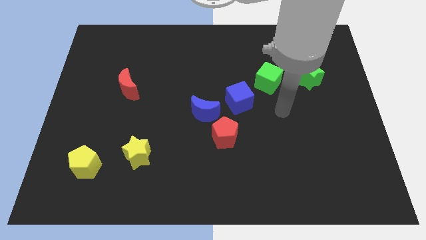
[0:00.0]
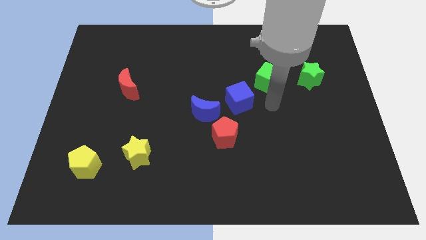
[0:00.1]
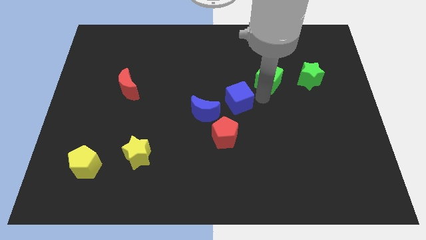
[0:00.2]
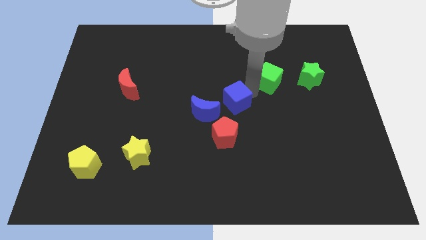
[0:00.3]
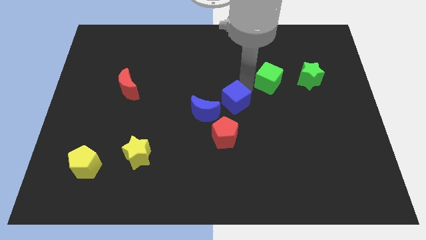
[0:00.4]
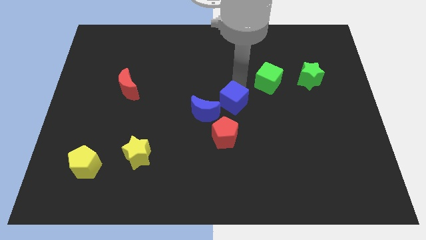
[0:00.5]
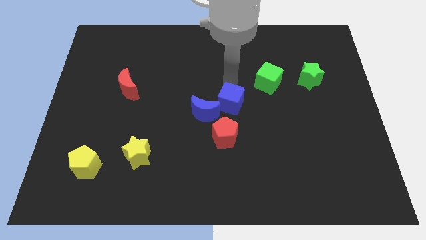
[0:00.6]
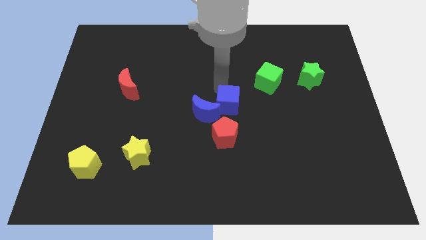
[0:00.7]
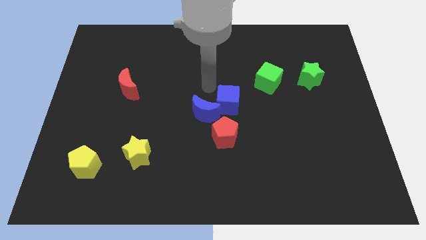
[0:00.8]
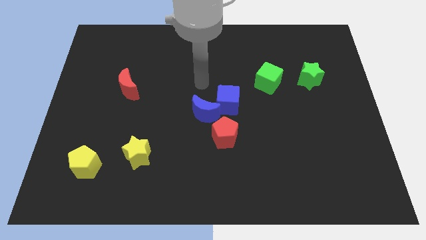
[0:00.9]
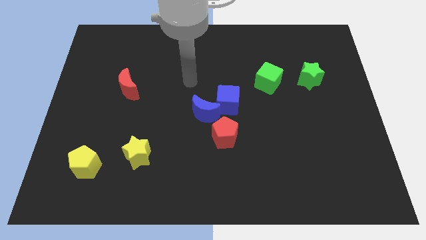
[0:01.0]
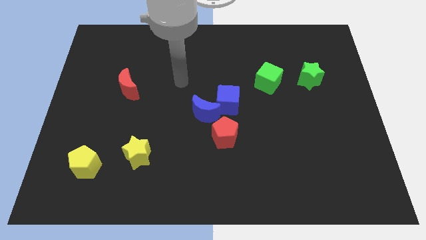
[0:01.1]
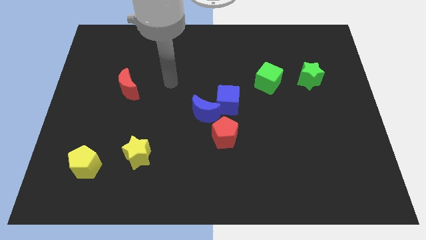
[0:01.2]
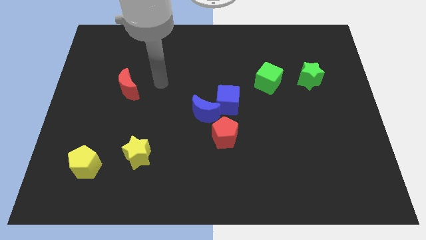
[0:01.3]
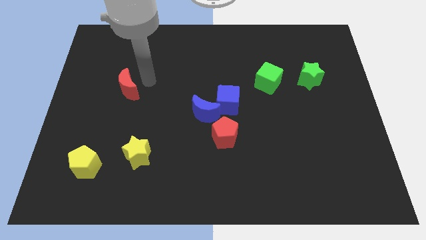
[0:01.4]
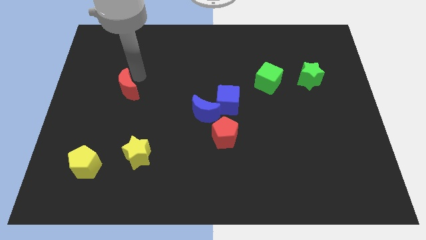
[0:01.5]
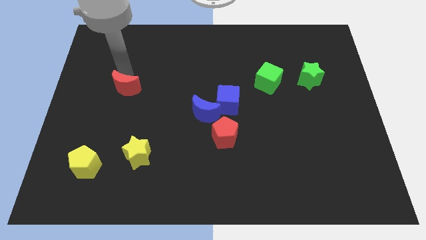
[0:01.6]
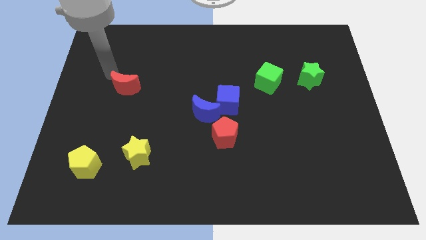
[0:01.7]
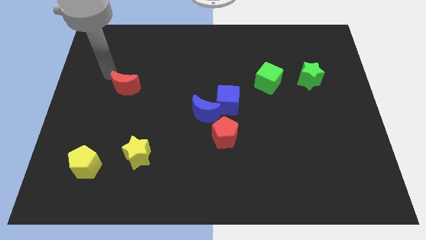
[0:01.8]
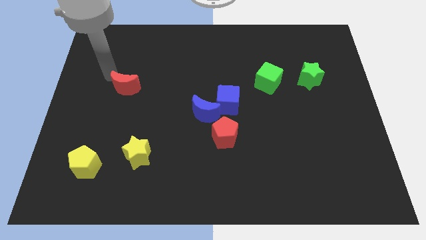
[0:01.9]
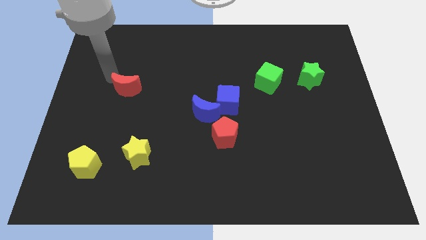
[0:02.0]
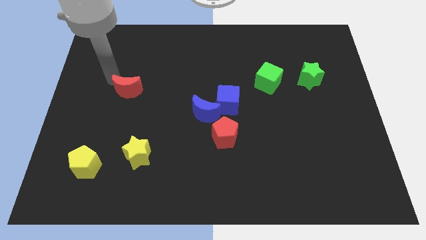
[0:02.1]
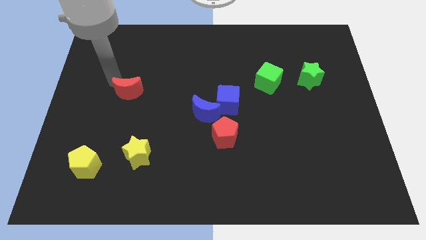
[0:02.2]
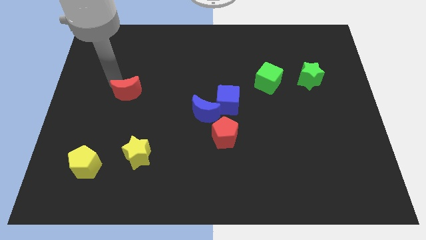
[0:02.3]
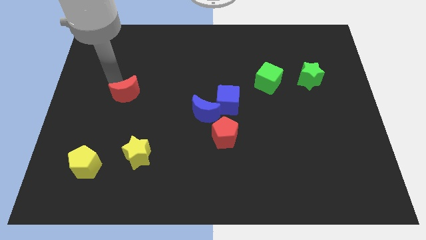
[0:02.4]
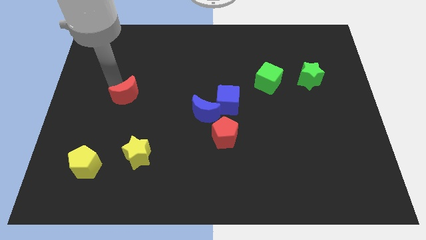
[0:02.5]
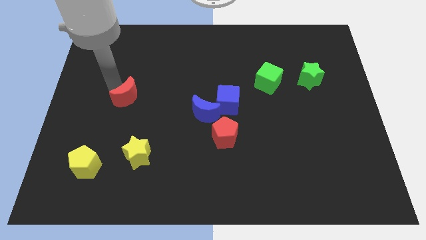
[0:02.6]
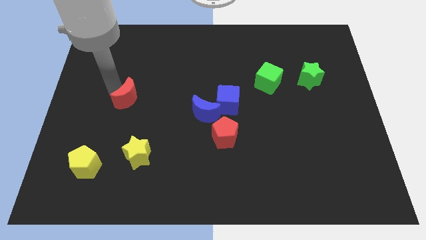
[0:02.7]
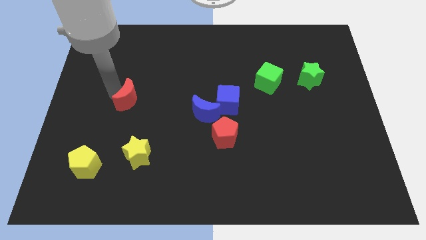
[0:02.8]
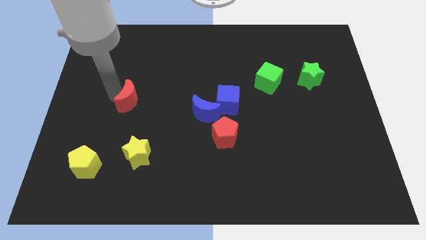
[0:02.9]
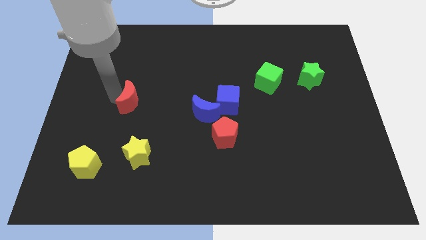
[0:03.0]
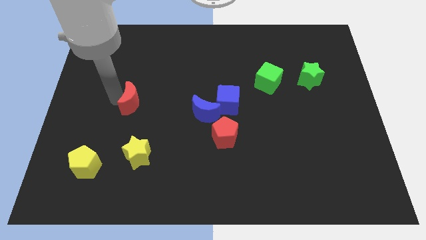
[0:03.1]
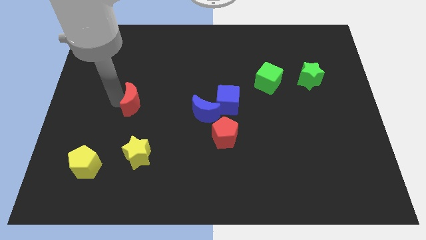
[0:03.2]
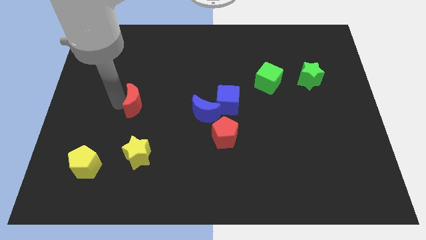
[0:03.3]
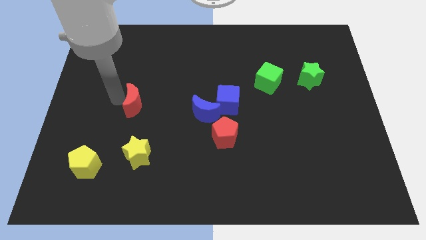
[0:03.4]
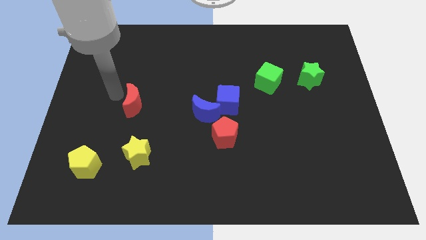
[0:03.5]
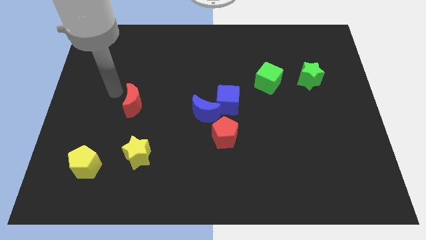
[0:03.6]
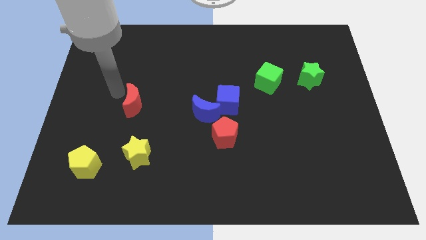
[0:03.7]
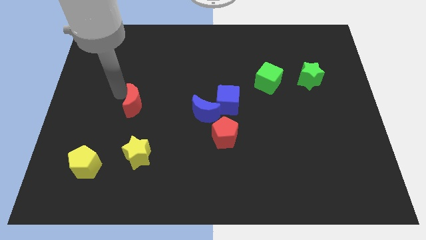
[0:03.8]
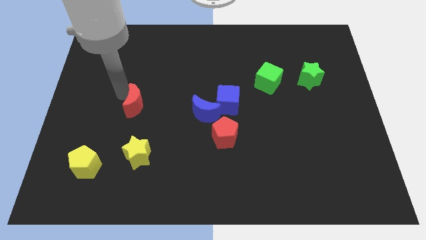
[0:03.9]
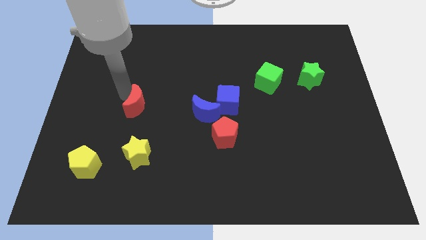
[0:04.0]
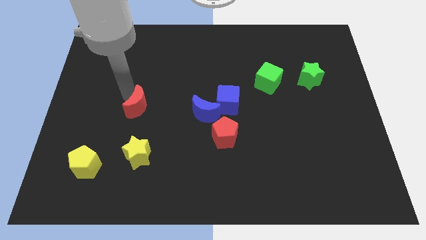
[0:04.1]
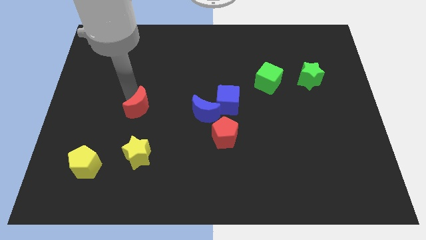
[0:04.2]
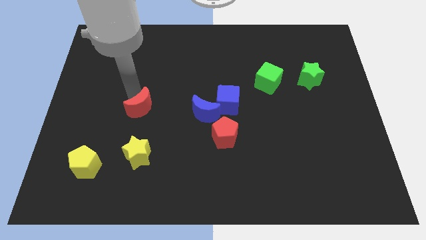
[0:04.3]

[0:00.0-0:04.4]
push the red moon down and to the right slightly

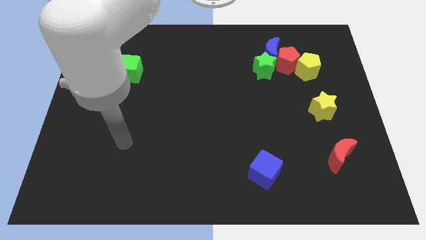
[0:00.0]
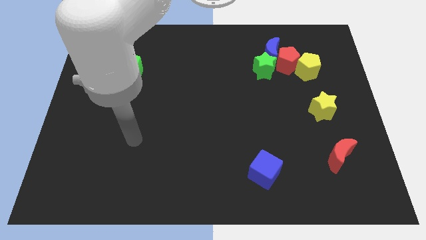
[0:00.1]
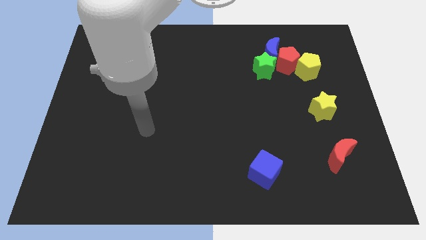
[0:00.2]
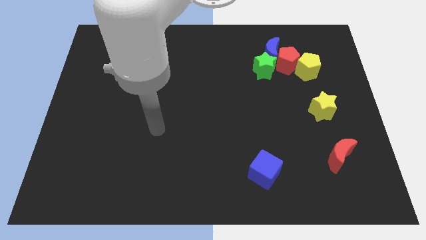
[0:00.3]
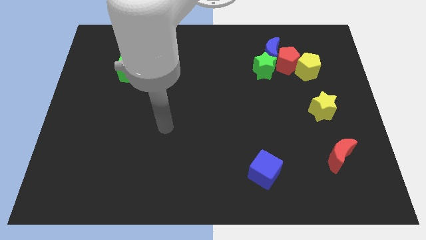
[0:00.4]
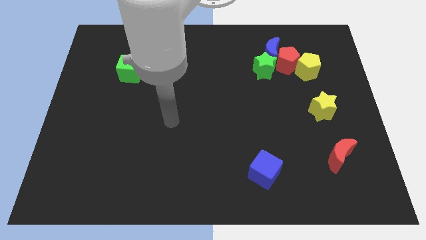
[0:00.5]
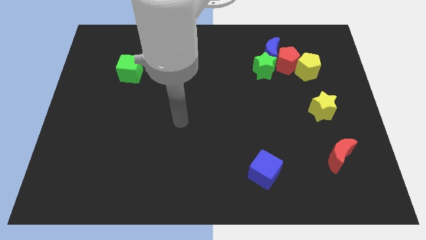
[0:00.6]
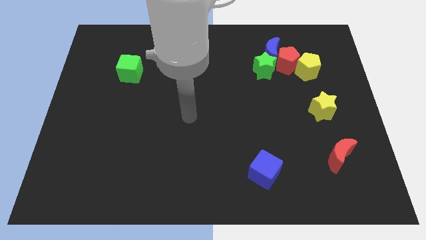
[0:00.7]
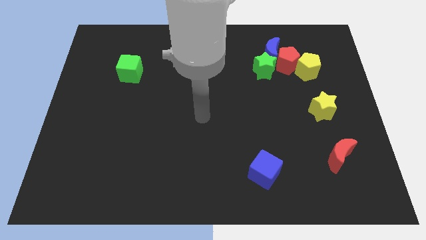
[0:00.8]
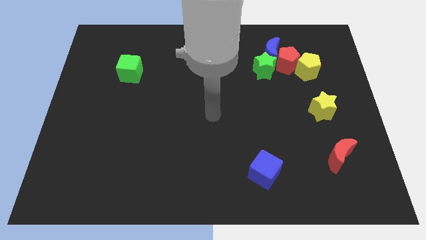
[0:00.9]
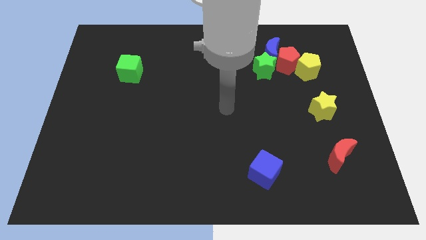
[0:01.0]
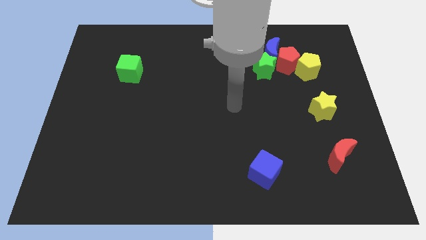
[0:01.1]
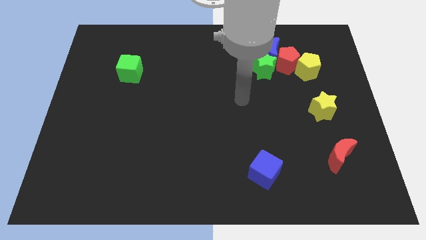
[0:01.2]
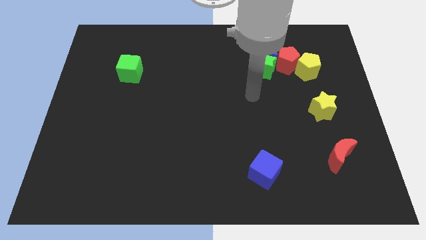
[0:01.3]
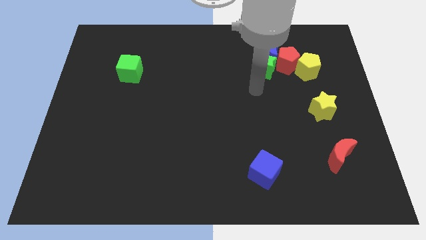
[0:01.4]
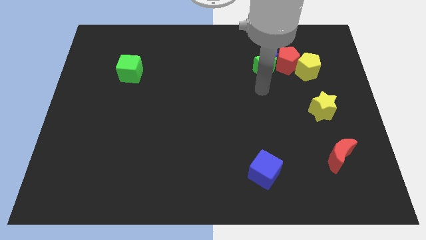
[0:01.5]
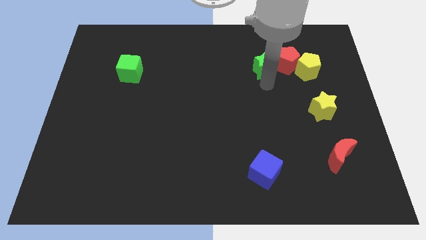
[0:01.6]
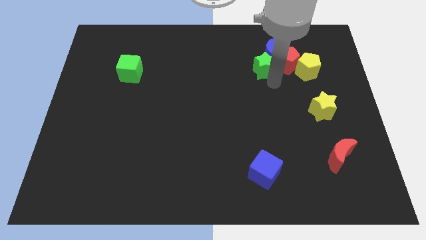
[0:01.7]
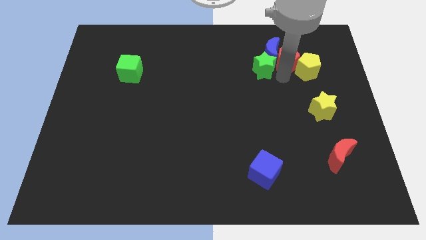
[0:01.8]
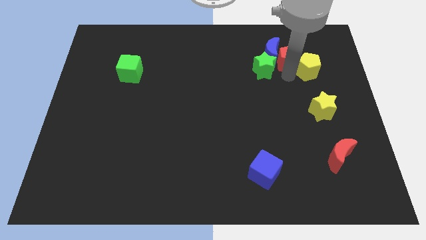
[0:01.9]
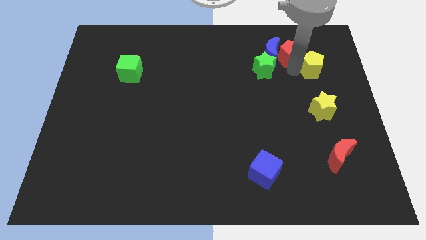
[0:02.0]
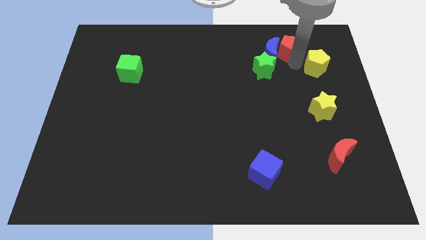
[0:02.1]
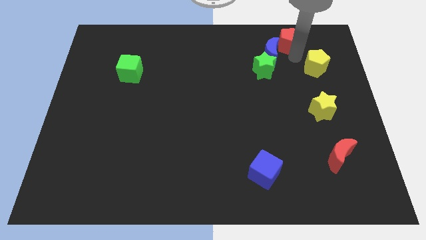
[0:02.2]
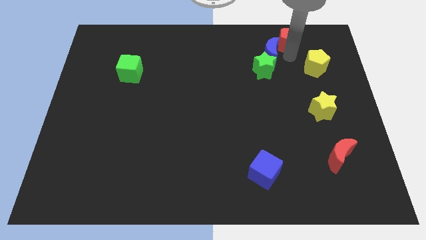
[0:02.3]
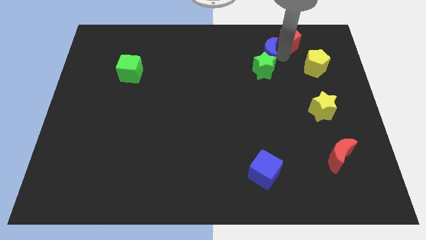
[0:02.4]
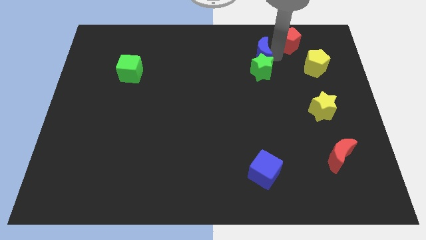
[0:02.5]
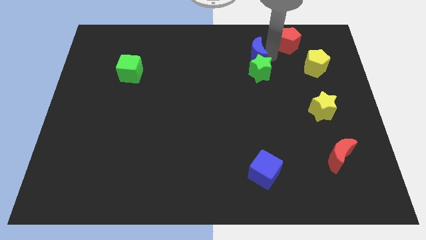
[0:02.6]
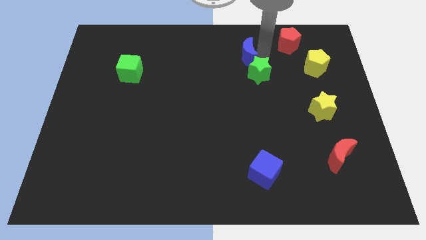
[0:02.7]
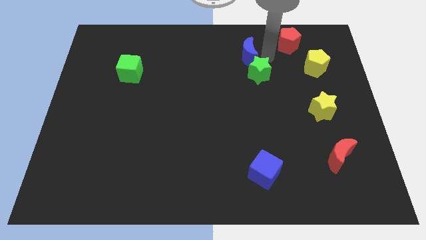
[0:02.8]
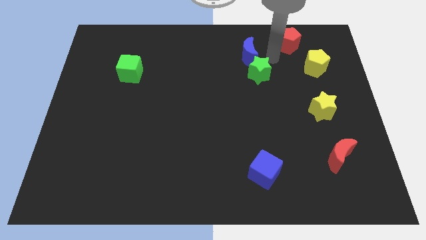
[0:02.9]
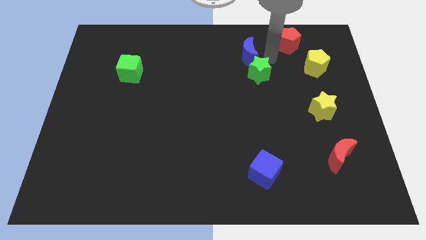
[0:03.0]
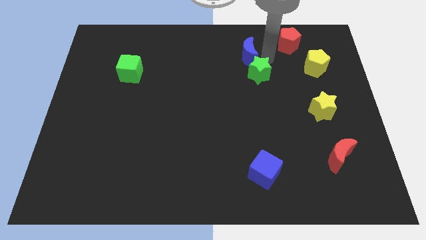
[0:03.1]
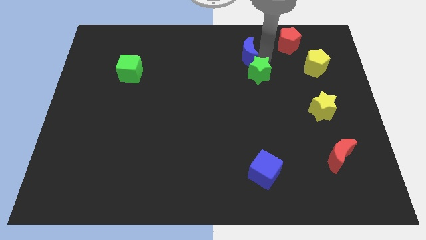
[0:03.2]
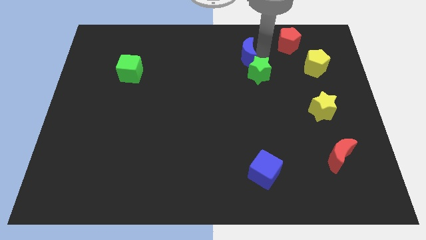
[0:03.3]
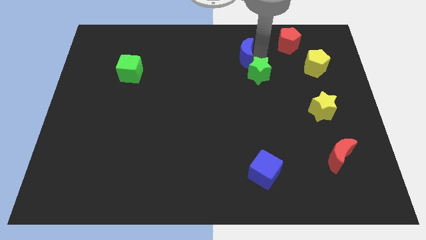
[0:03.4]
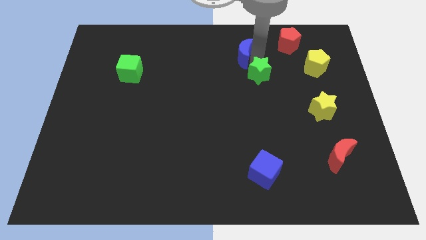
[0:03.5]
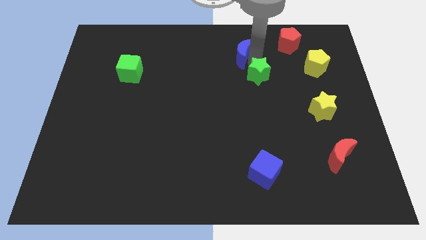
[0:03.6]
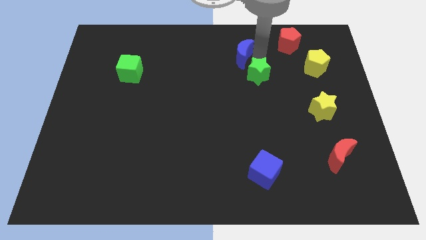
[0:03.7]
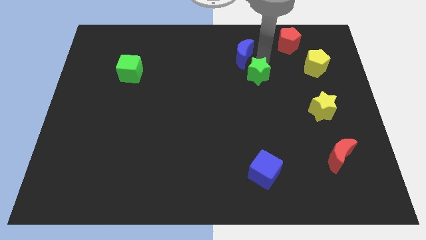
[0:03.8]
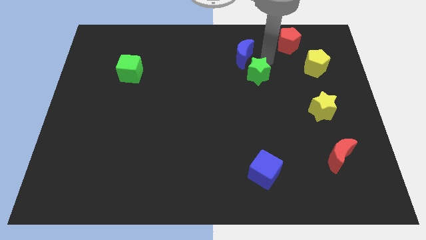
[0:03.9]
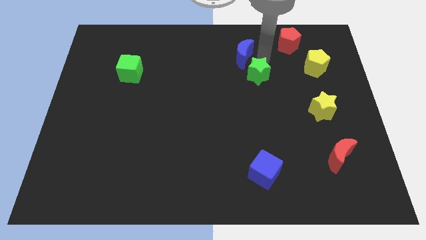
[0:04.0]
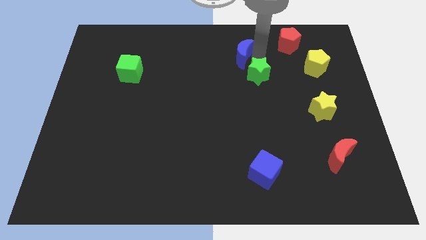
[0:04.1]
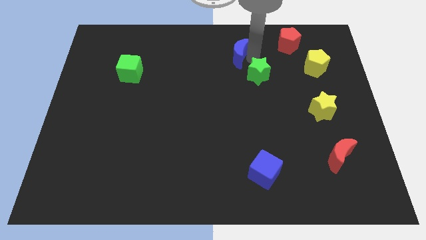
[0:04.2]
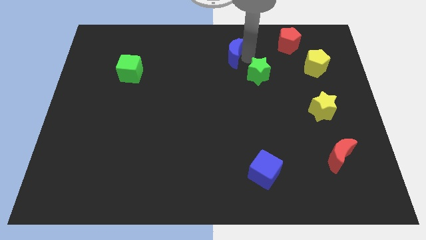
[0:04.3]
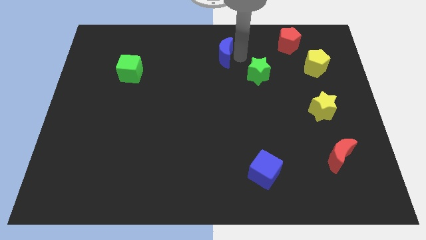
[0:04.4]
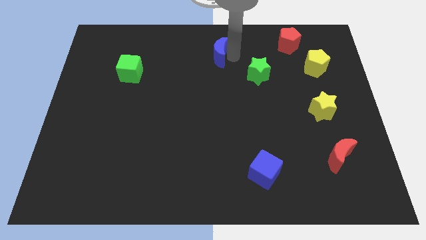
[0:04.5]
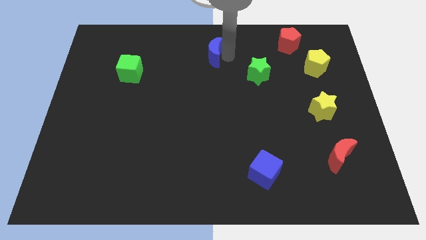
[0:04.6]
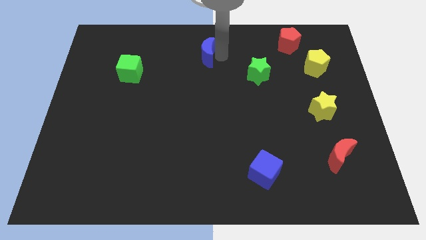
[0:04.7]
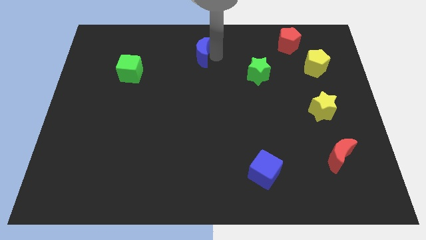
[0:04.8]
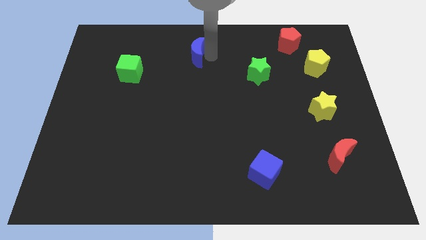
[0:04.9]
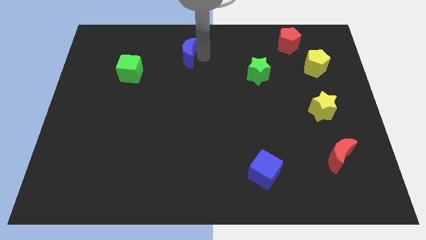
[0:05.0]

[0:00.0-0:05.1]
slide the blue moon to the left
